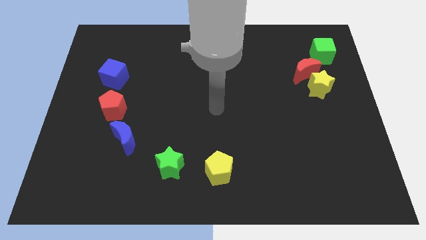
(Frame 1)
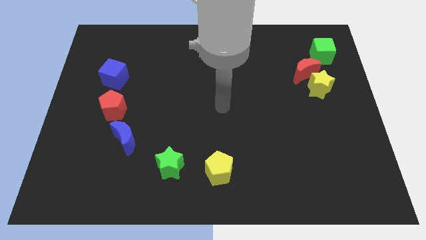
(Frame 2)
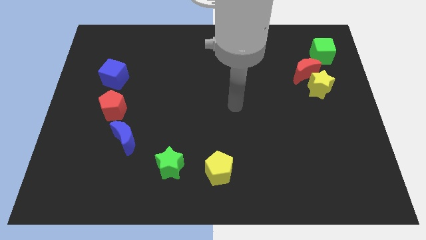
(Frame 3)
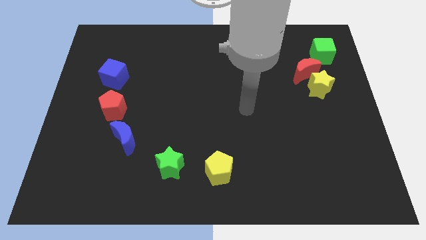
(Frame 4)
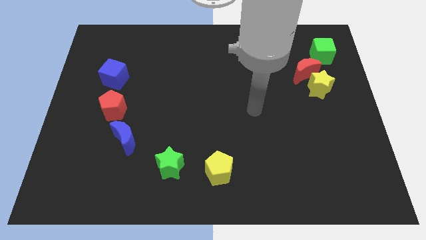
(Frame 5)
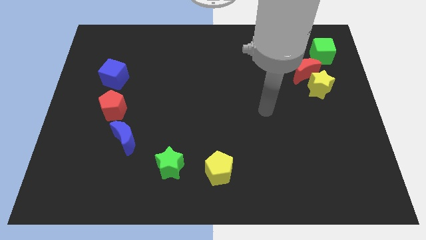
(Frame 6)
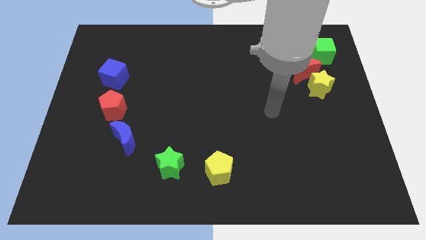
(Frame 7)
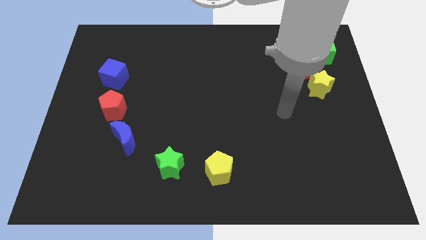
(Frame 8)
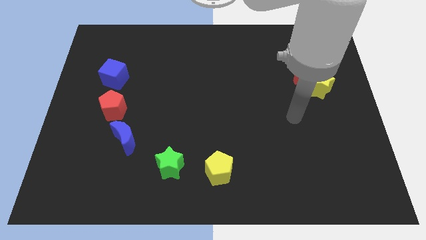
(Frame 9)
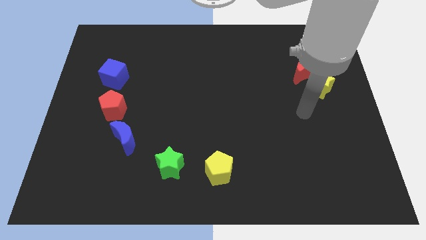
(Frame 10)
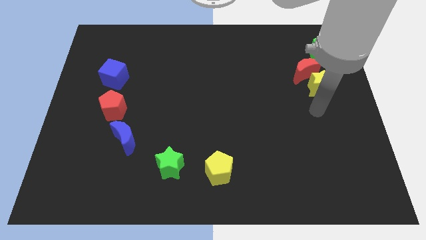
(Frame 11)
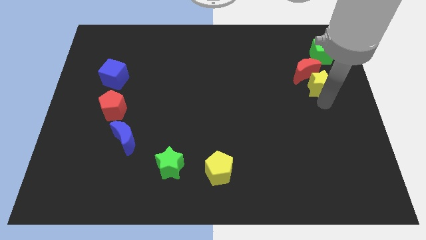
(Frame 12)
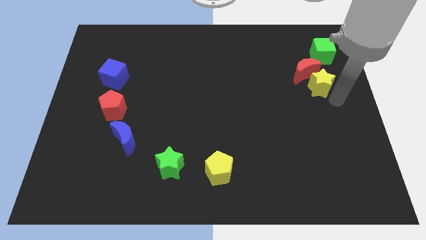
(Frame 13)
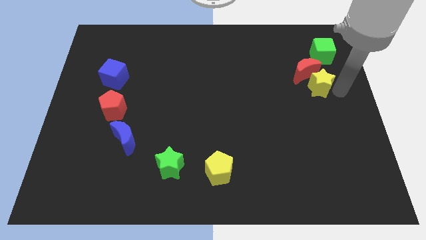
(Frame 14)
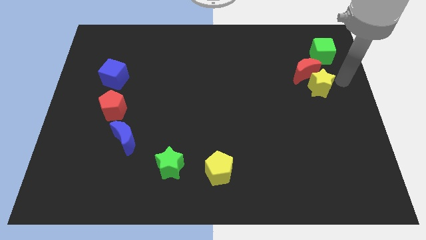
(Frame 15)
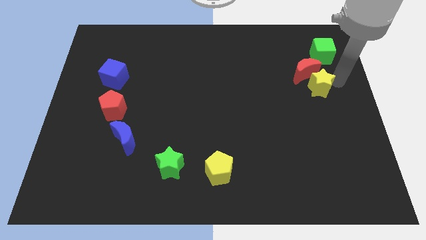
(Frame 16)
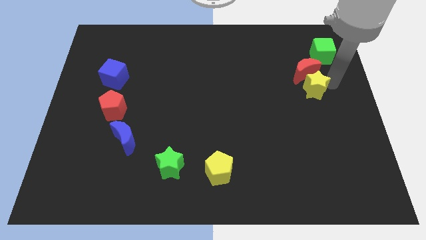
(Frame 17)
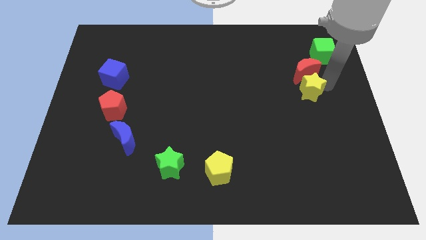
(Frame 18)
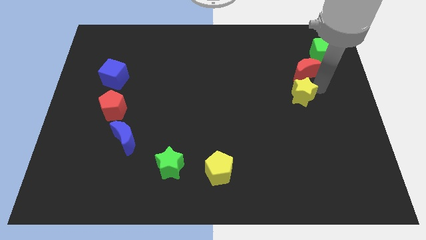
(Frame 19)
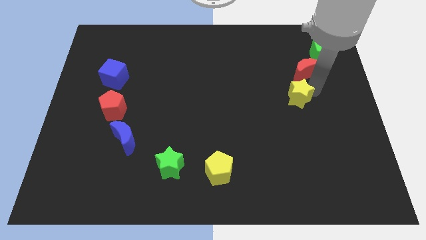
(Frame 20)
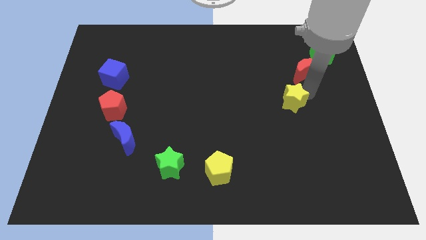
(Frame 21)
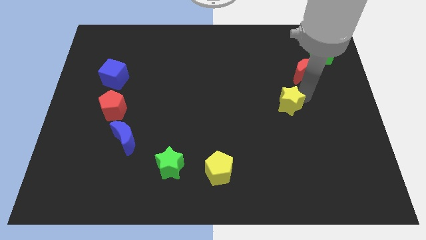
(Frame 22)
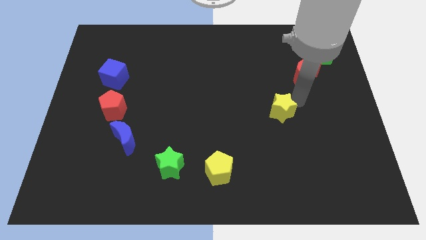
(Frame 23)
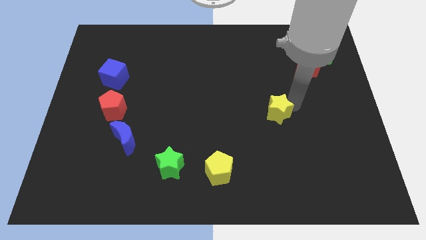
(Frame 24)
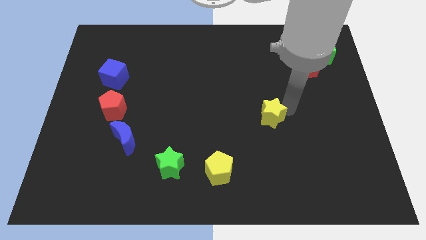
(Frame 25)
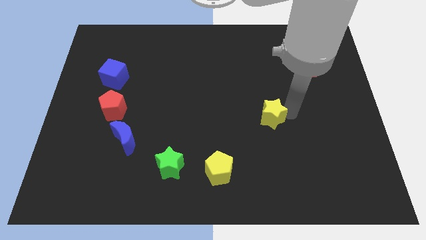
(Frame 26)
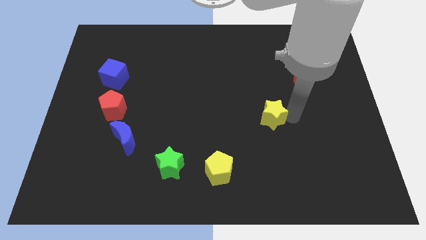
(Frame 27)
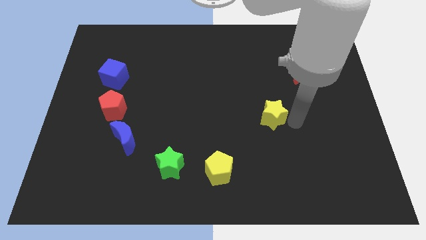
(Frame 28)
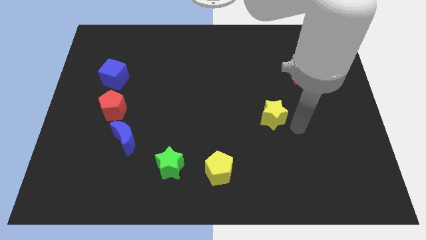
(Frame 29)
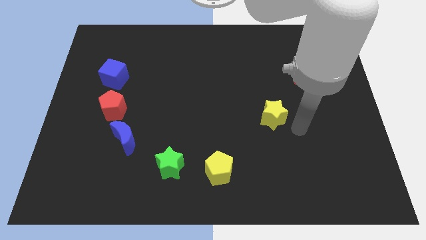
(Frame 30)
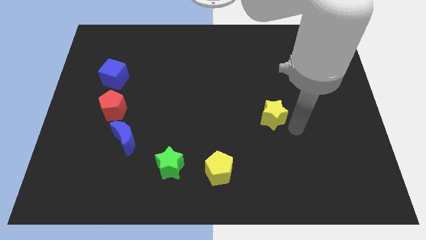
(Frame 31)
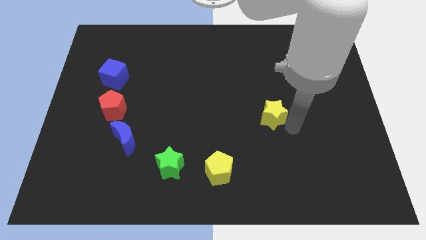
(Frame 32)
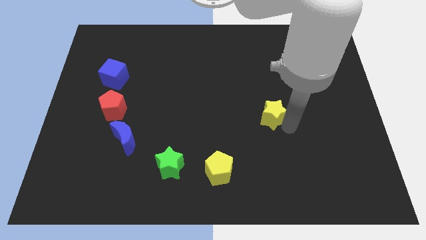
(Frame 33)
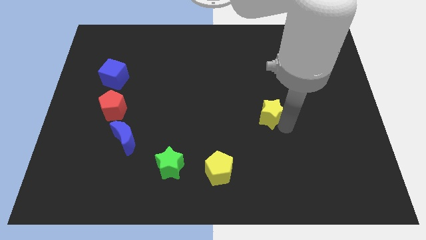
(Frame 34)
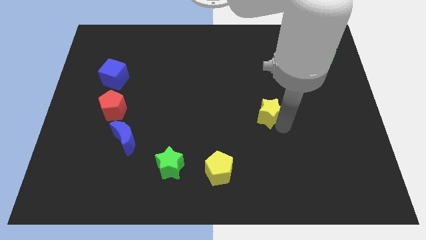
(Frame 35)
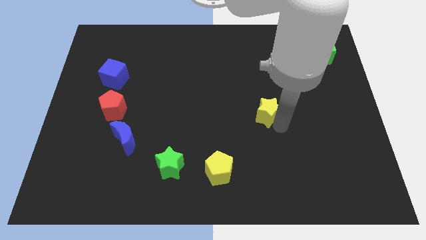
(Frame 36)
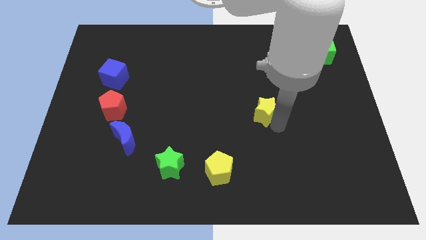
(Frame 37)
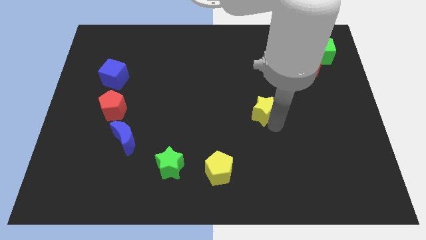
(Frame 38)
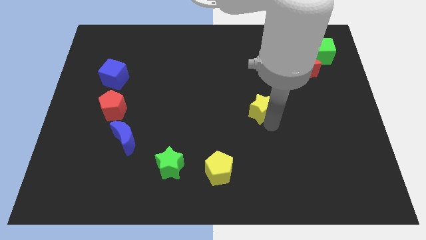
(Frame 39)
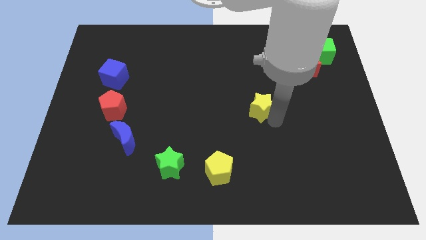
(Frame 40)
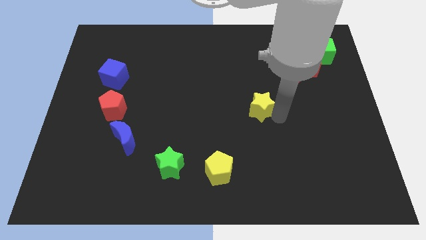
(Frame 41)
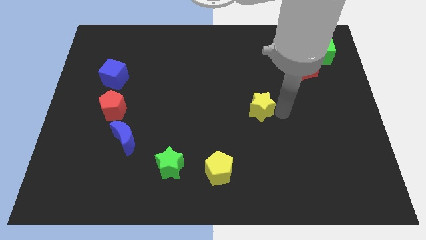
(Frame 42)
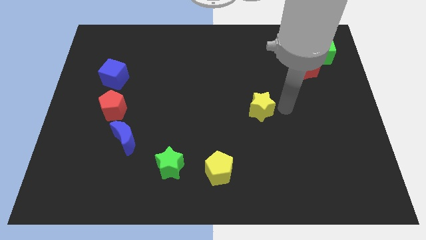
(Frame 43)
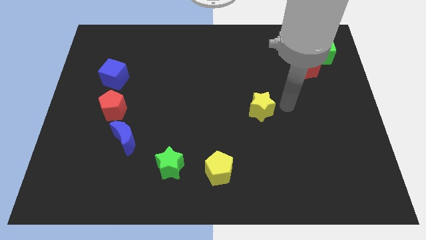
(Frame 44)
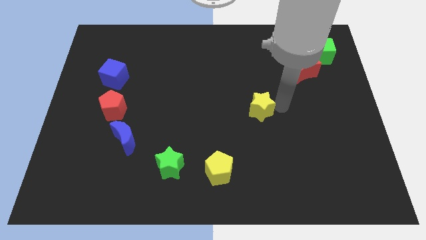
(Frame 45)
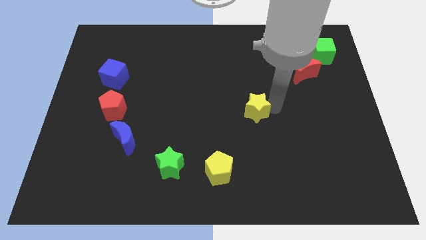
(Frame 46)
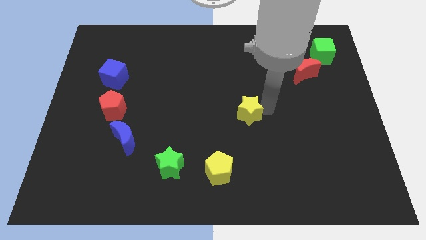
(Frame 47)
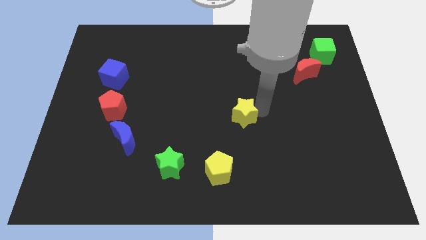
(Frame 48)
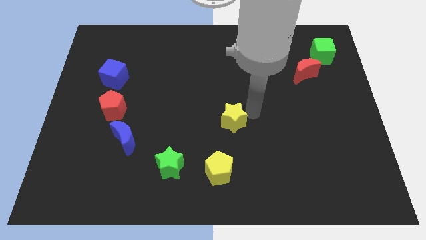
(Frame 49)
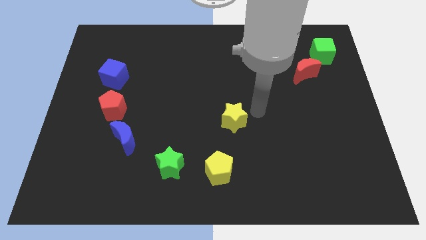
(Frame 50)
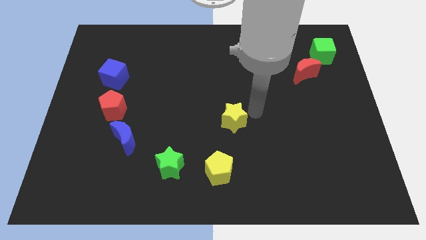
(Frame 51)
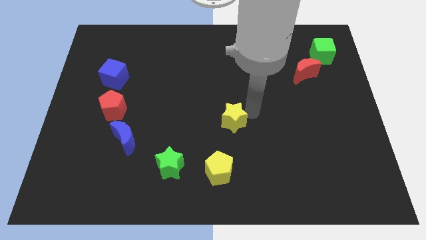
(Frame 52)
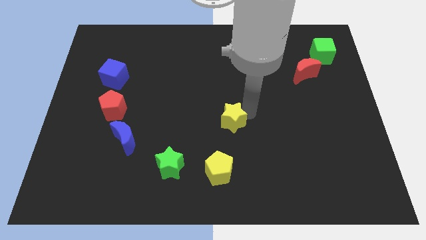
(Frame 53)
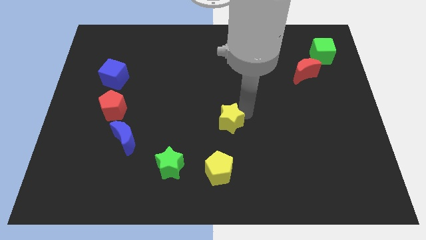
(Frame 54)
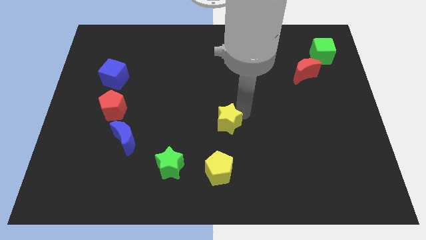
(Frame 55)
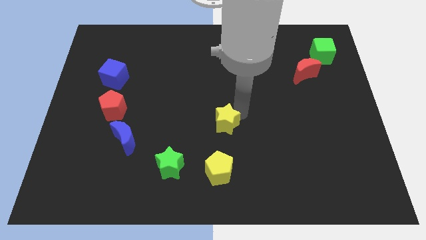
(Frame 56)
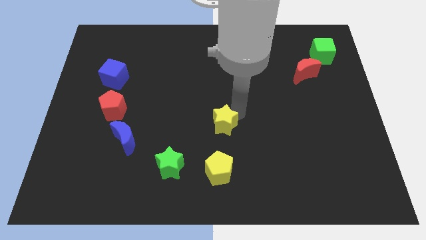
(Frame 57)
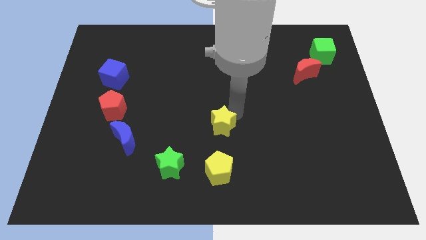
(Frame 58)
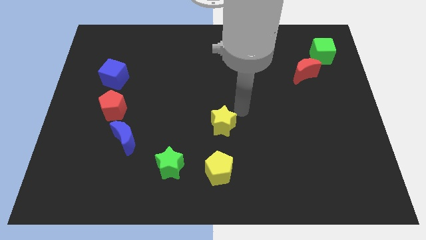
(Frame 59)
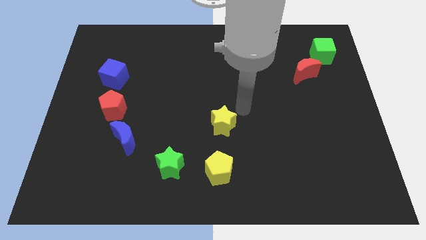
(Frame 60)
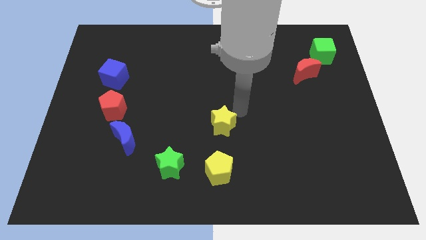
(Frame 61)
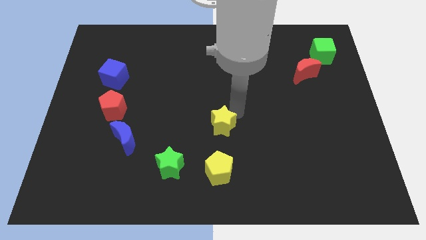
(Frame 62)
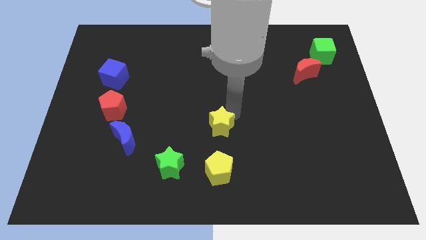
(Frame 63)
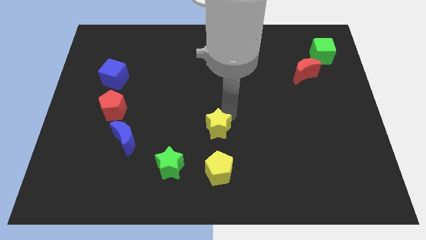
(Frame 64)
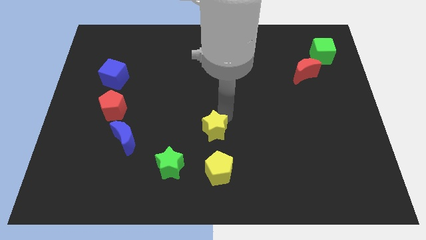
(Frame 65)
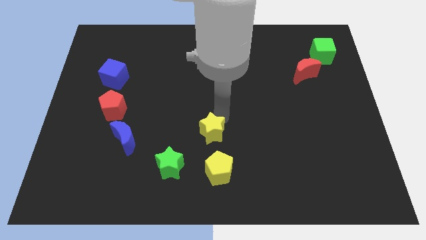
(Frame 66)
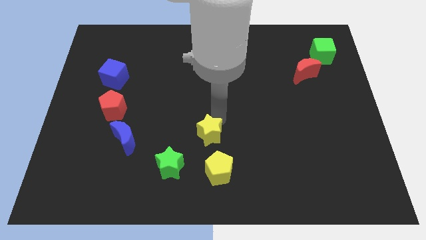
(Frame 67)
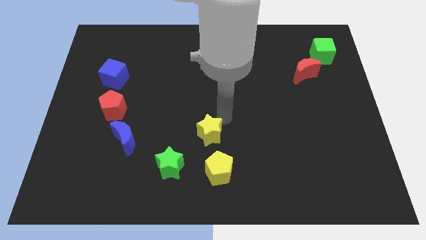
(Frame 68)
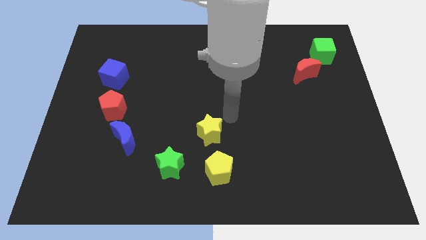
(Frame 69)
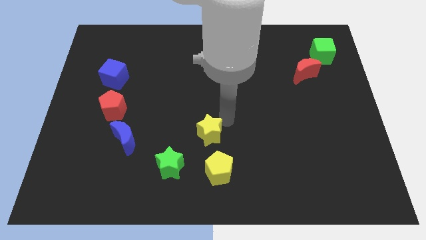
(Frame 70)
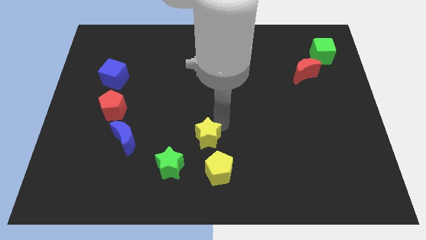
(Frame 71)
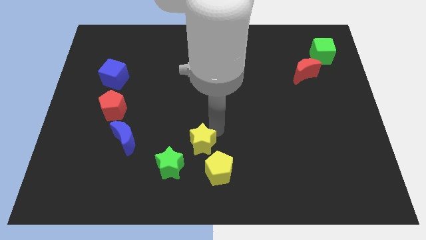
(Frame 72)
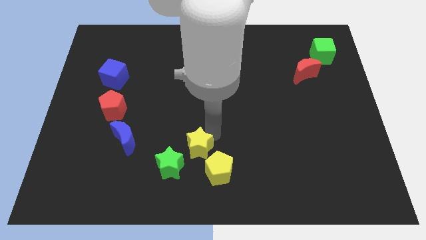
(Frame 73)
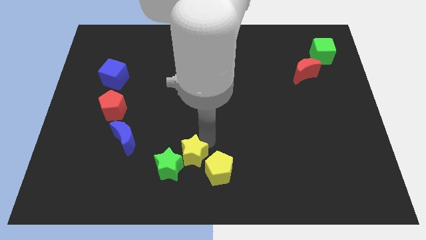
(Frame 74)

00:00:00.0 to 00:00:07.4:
move the yellow star to the green star
